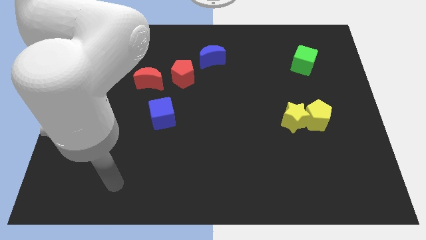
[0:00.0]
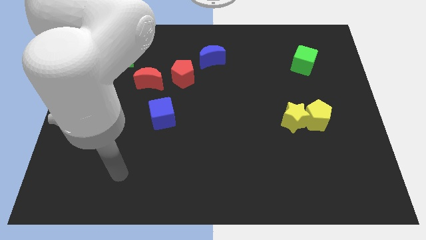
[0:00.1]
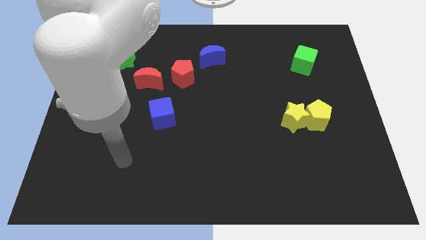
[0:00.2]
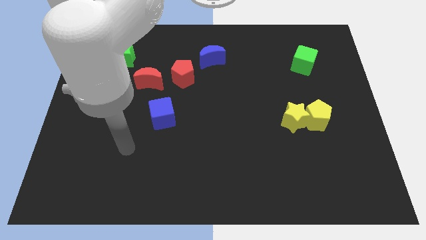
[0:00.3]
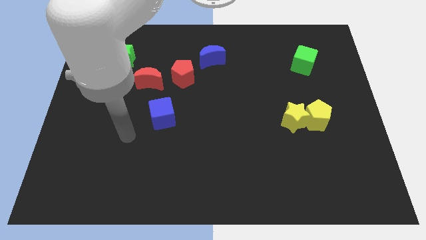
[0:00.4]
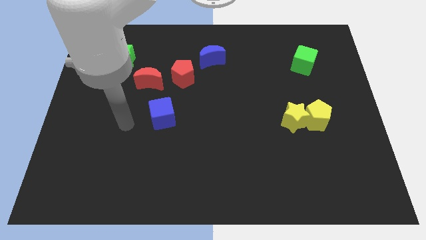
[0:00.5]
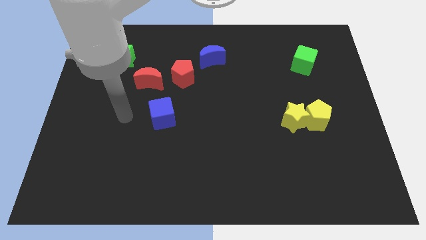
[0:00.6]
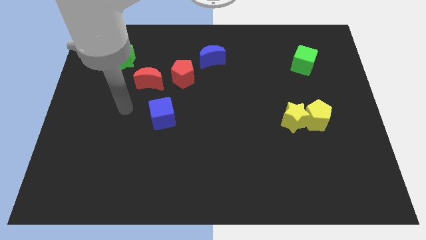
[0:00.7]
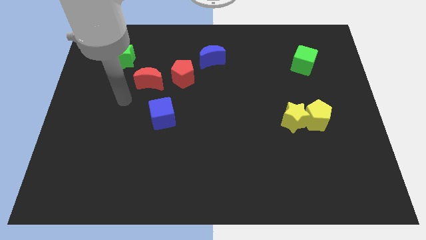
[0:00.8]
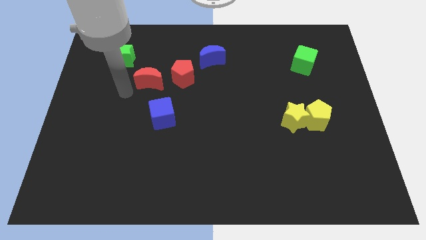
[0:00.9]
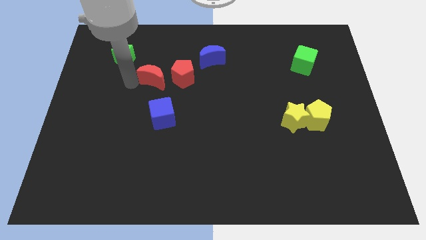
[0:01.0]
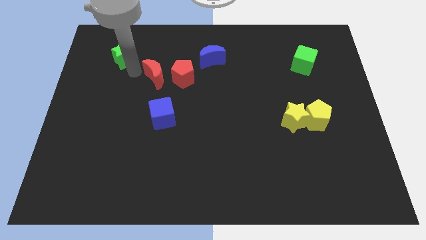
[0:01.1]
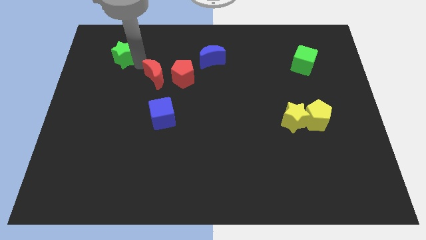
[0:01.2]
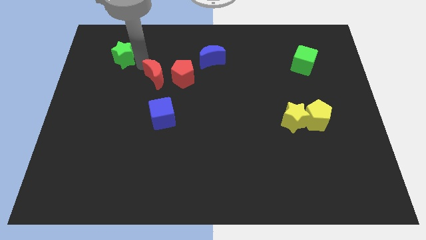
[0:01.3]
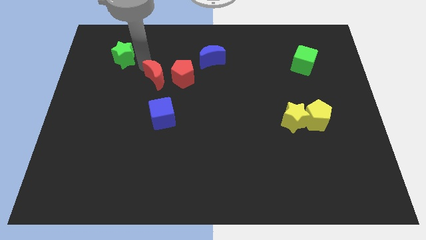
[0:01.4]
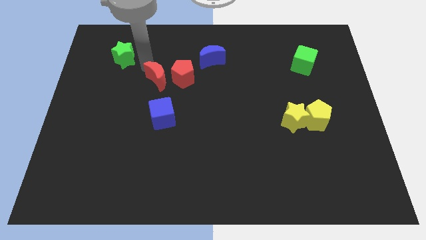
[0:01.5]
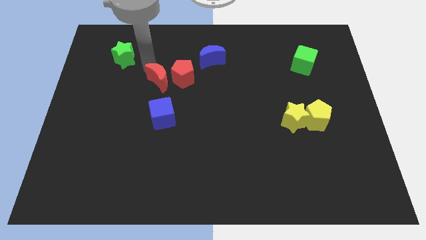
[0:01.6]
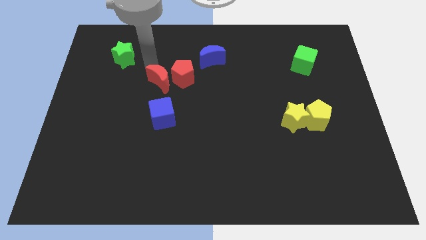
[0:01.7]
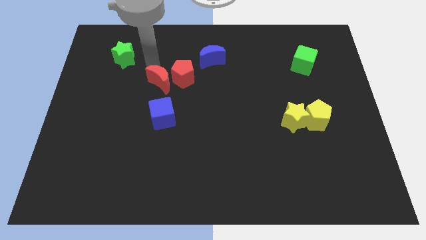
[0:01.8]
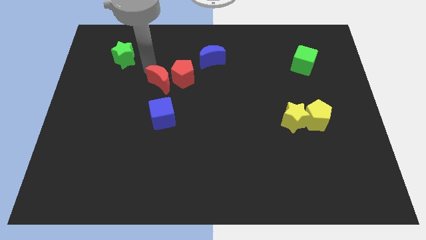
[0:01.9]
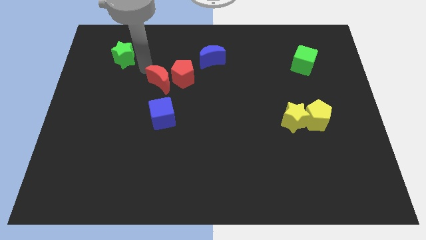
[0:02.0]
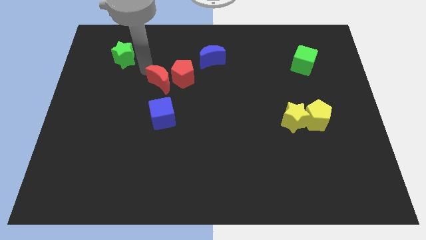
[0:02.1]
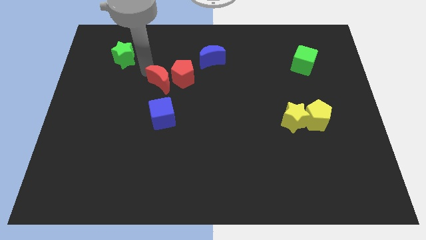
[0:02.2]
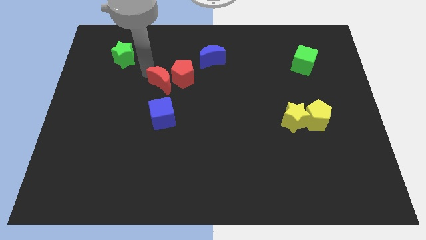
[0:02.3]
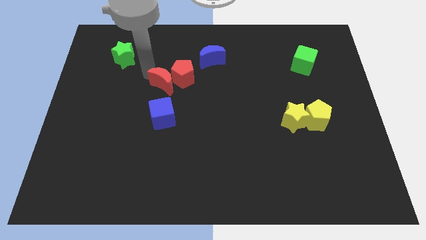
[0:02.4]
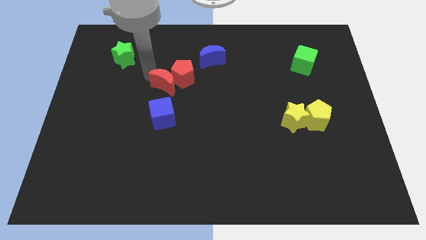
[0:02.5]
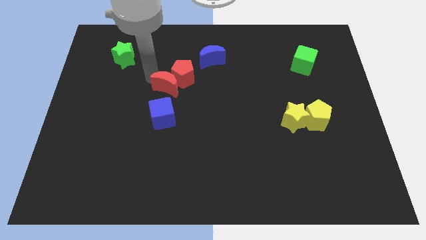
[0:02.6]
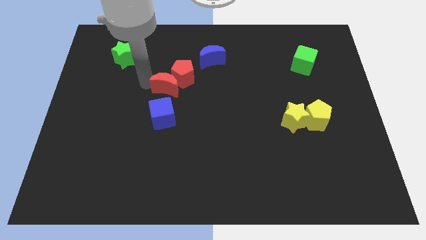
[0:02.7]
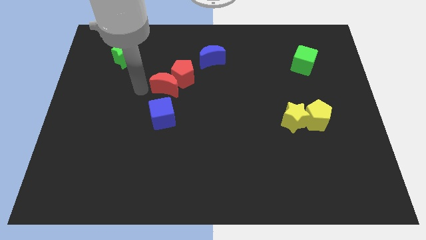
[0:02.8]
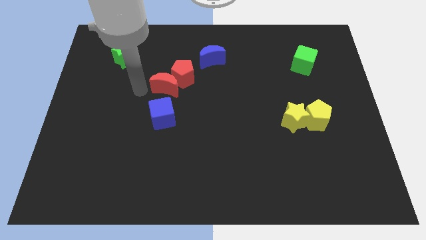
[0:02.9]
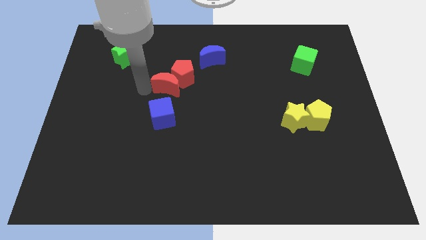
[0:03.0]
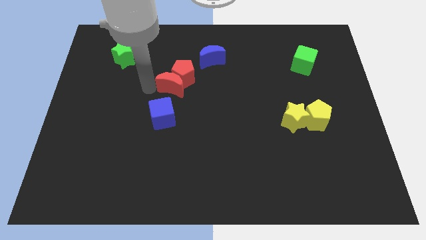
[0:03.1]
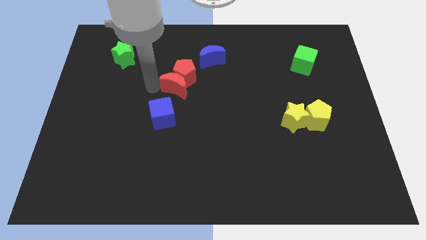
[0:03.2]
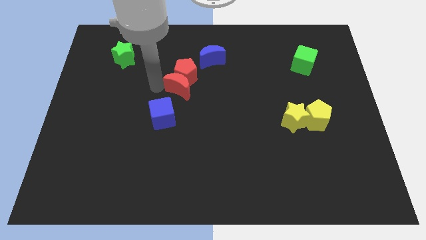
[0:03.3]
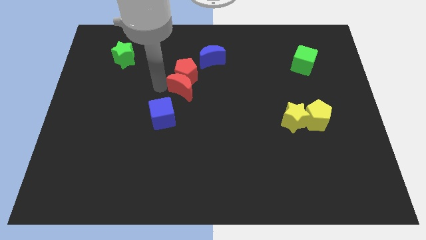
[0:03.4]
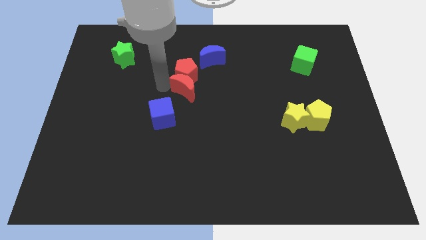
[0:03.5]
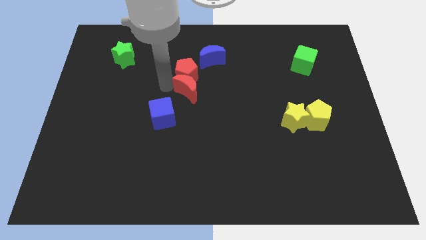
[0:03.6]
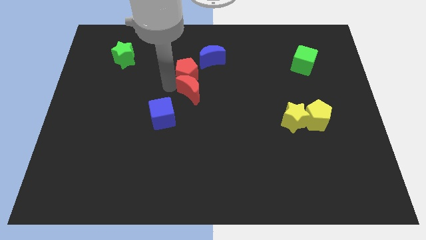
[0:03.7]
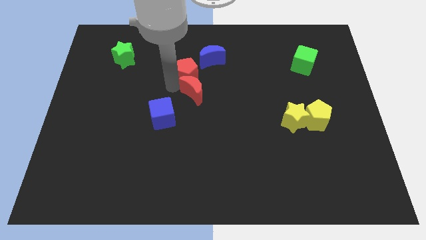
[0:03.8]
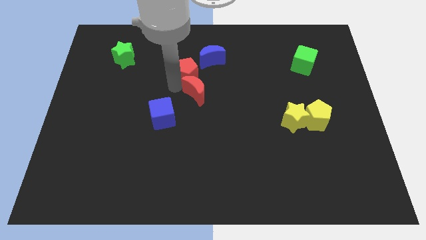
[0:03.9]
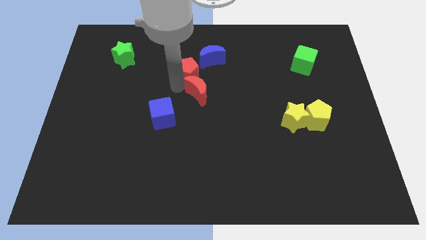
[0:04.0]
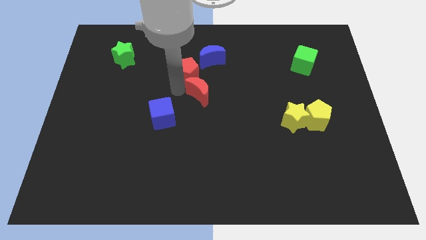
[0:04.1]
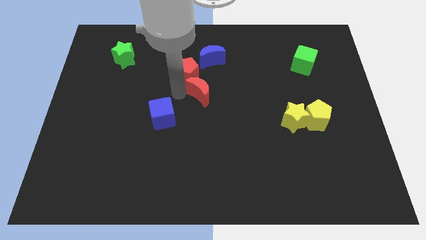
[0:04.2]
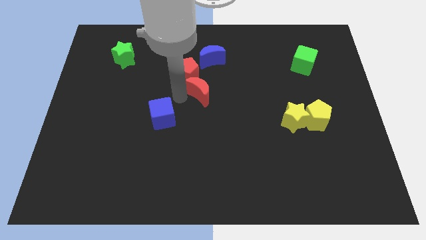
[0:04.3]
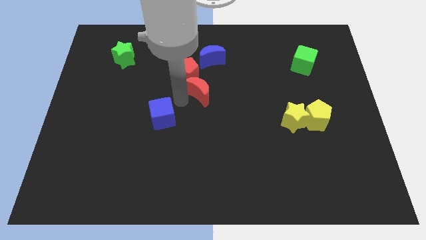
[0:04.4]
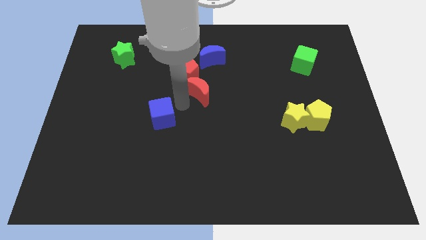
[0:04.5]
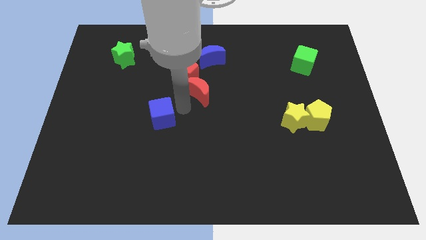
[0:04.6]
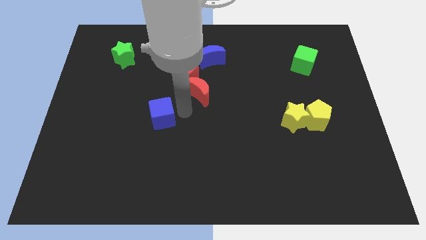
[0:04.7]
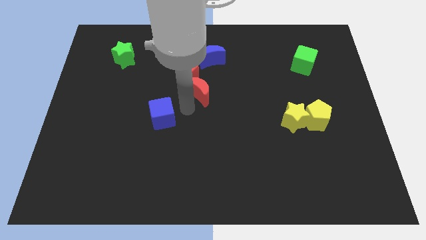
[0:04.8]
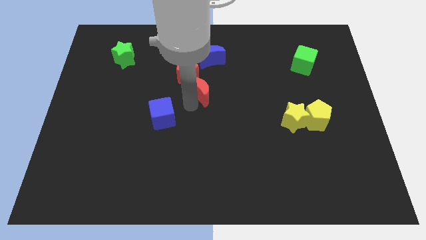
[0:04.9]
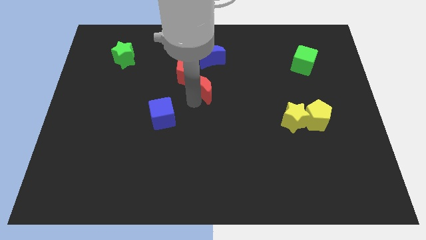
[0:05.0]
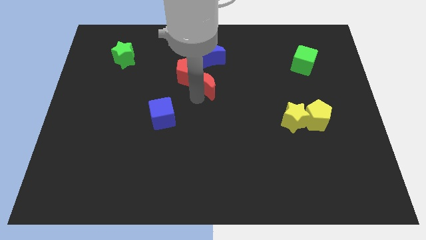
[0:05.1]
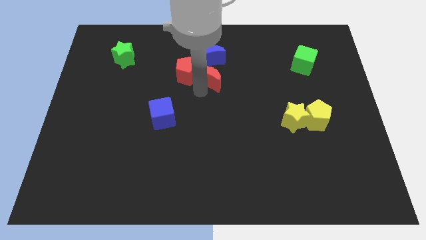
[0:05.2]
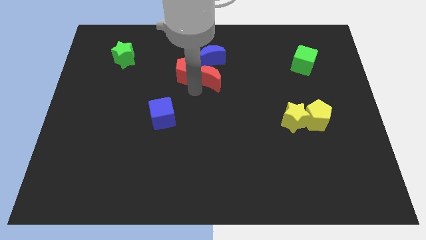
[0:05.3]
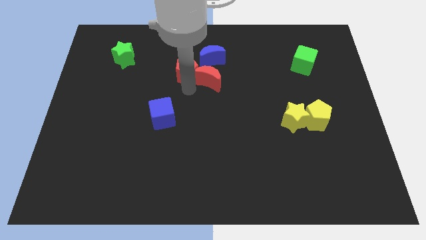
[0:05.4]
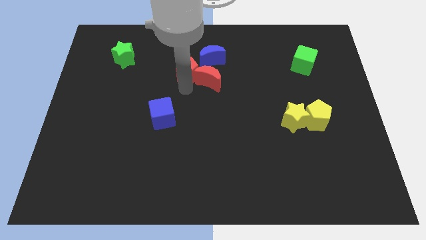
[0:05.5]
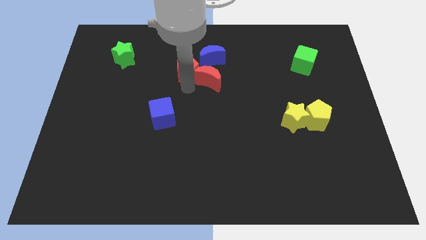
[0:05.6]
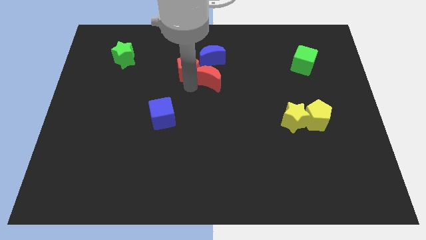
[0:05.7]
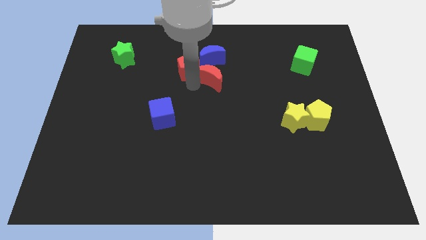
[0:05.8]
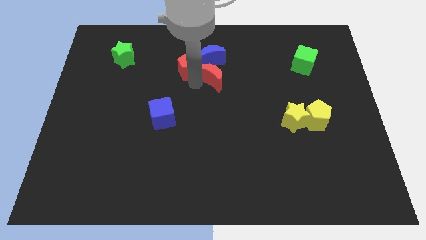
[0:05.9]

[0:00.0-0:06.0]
slide the red moon to the bottom right side of the blue moon

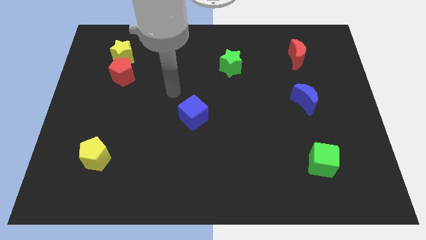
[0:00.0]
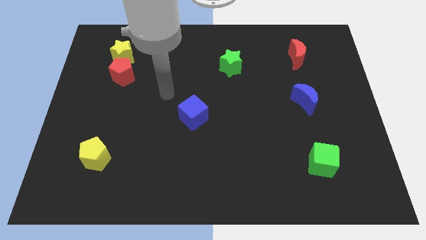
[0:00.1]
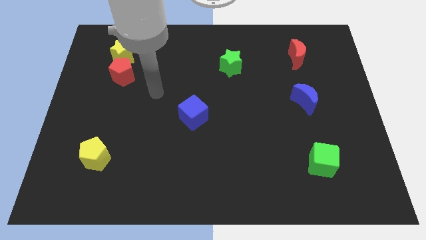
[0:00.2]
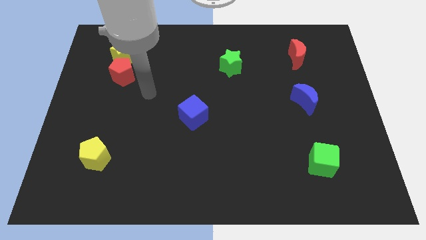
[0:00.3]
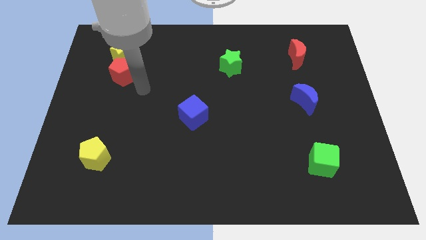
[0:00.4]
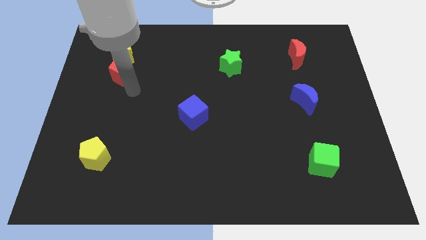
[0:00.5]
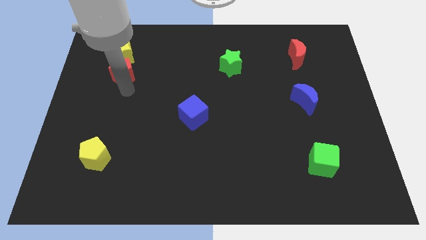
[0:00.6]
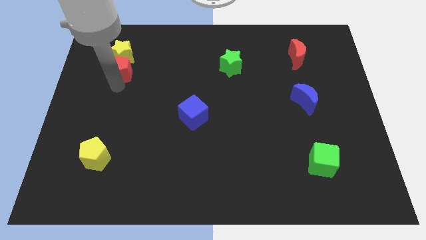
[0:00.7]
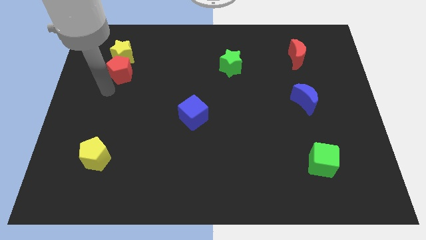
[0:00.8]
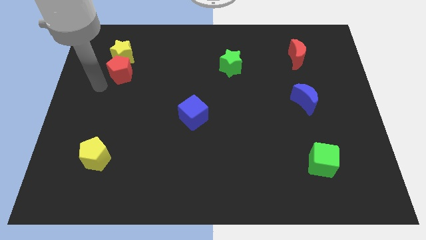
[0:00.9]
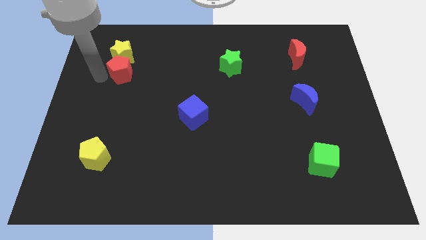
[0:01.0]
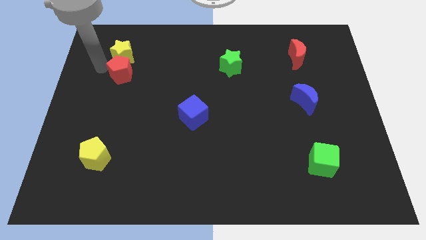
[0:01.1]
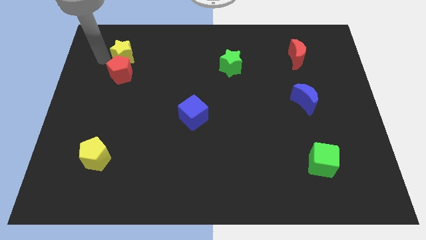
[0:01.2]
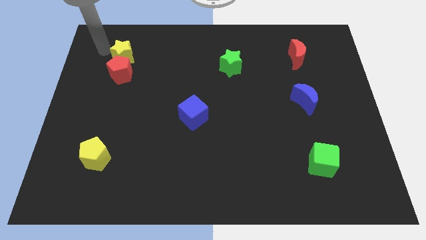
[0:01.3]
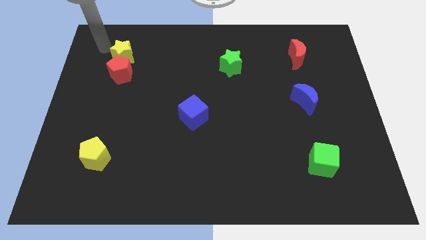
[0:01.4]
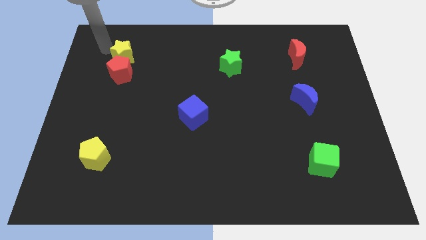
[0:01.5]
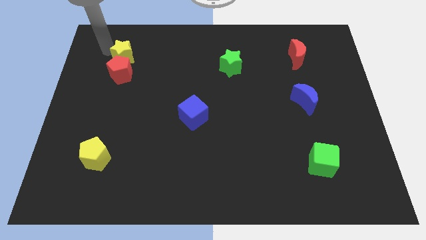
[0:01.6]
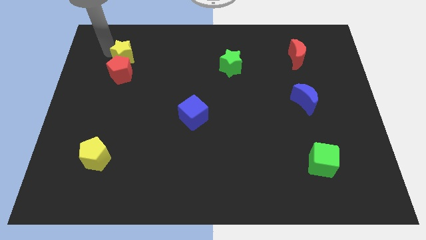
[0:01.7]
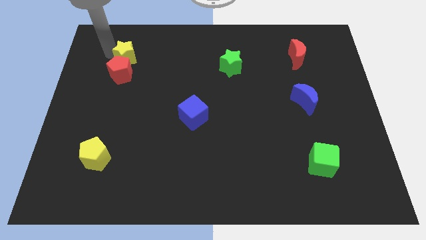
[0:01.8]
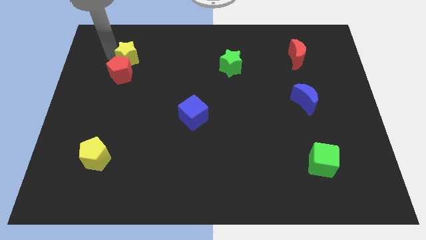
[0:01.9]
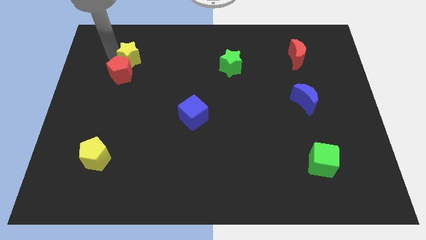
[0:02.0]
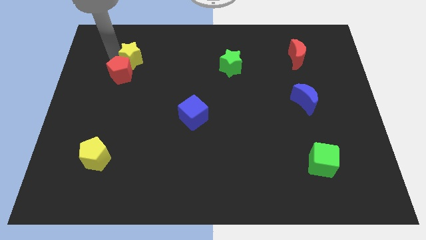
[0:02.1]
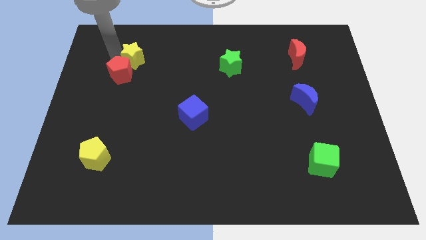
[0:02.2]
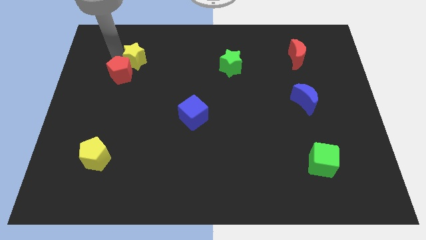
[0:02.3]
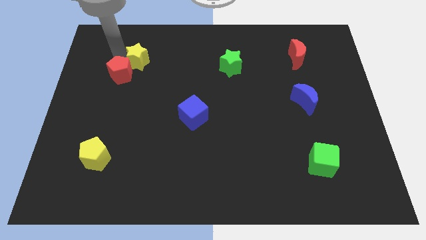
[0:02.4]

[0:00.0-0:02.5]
push the yellow star right of the red pentagon
